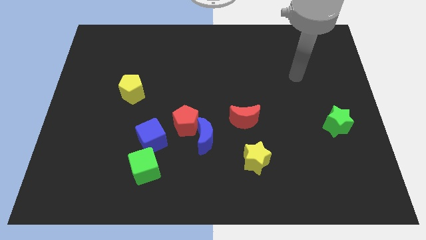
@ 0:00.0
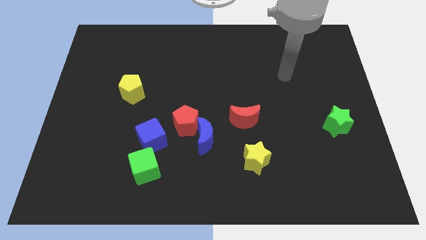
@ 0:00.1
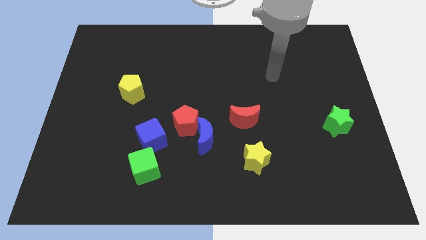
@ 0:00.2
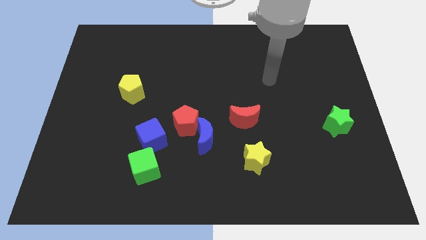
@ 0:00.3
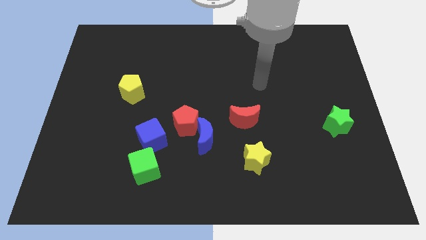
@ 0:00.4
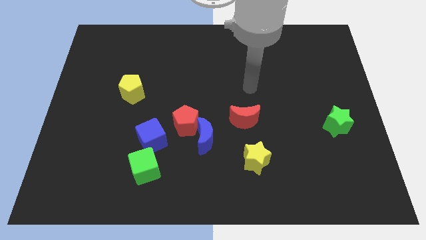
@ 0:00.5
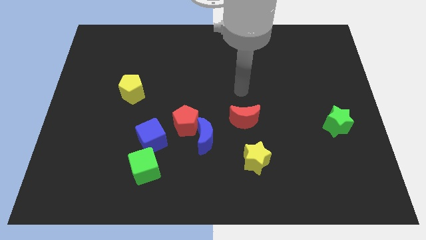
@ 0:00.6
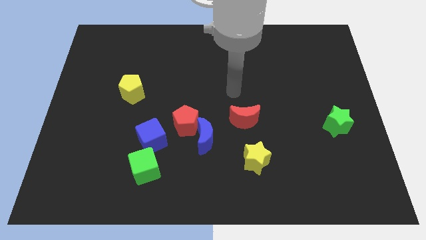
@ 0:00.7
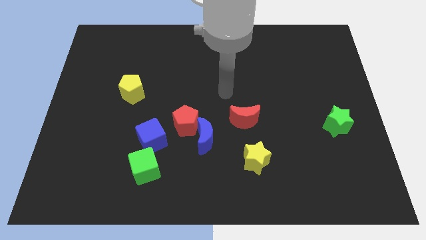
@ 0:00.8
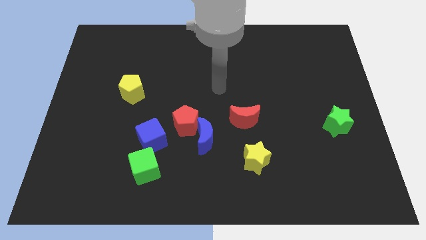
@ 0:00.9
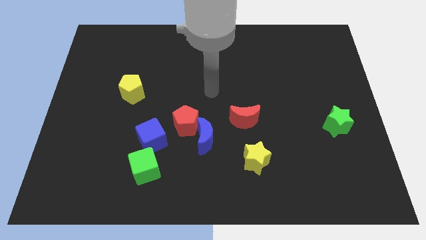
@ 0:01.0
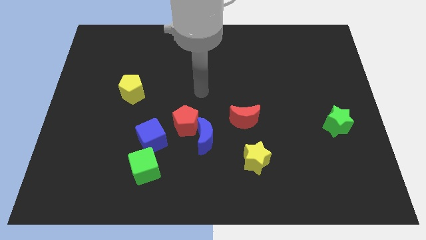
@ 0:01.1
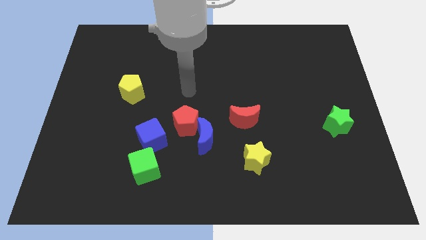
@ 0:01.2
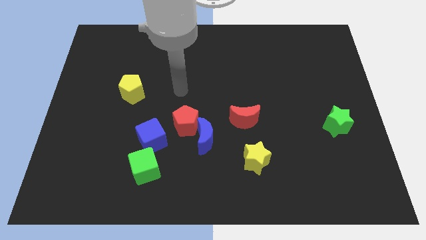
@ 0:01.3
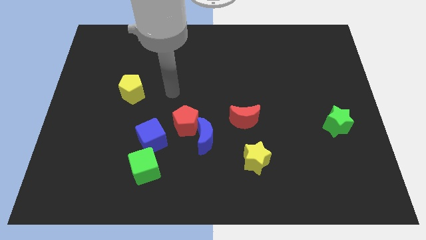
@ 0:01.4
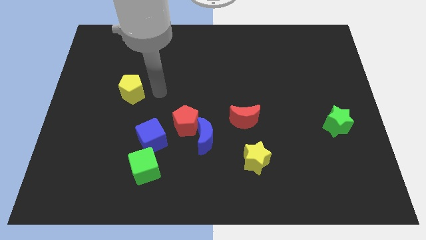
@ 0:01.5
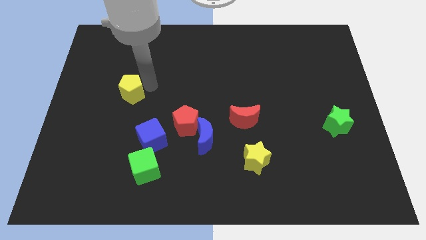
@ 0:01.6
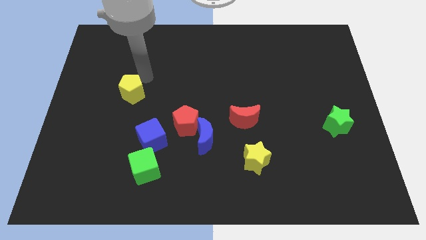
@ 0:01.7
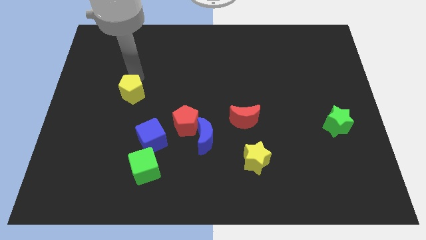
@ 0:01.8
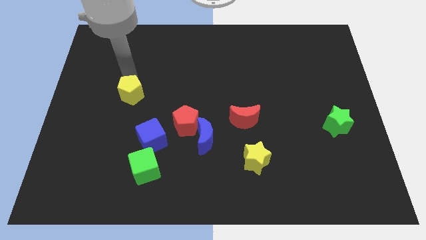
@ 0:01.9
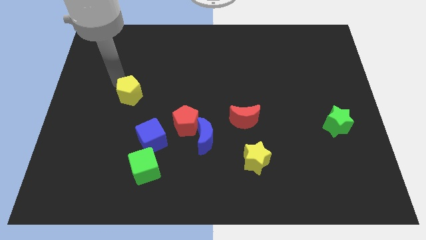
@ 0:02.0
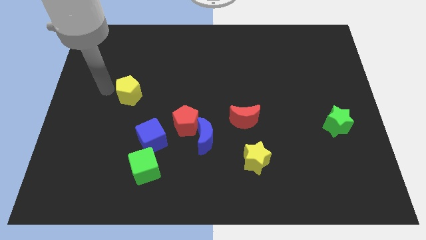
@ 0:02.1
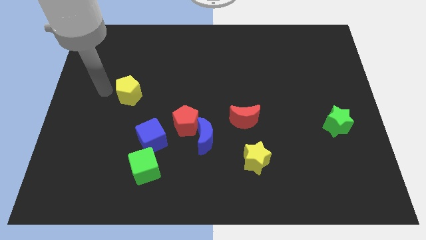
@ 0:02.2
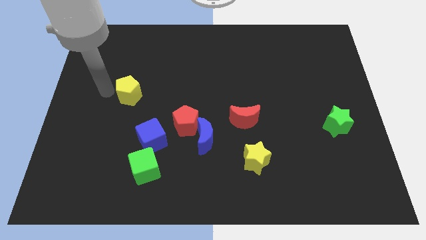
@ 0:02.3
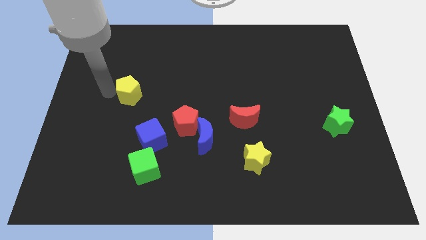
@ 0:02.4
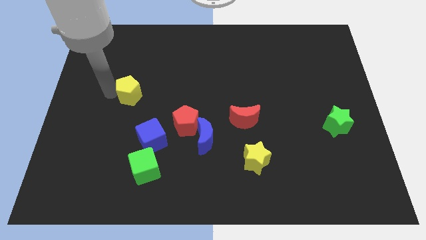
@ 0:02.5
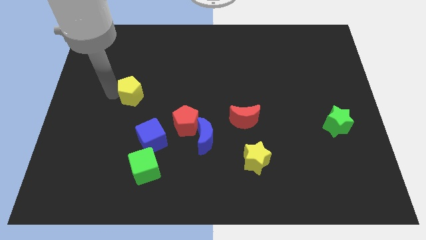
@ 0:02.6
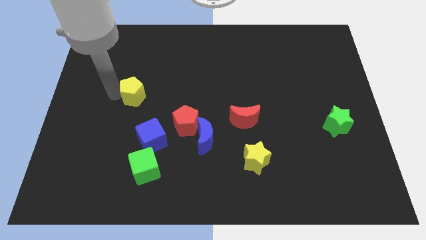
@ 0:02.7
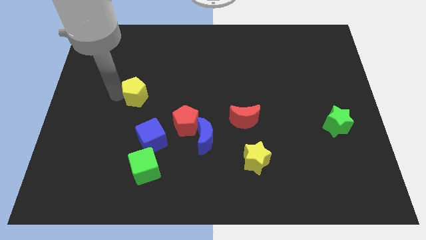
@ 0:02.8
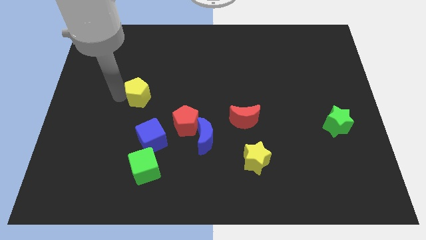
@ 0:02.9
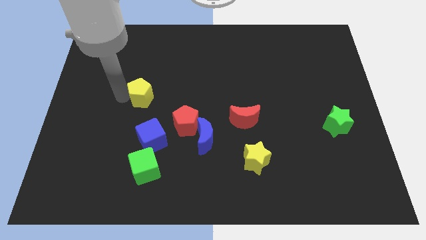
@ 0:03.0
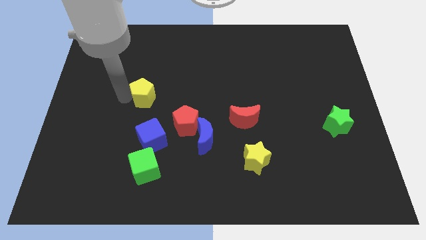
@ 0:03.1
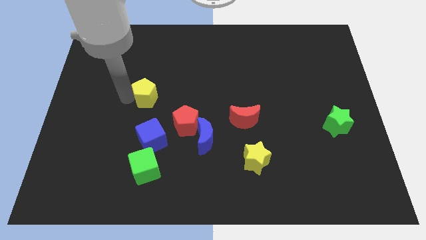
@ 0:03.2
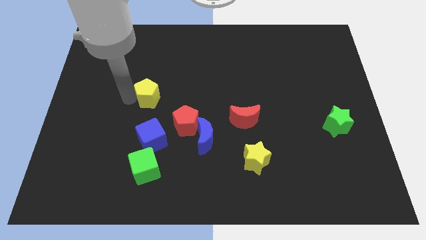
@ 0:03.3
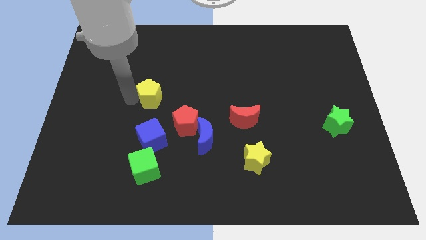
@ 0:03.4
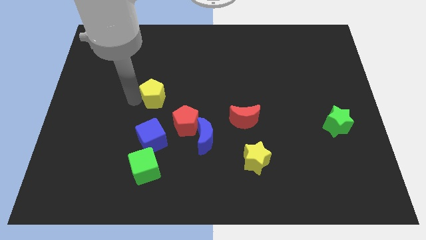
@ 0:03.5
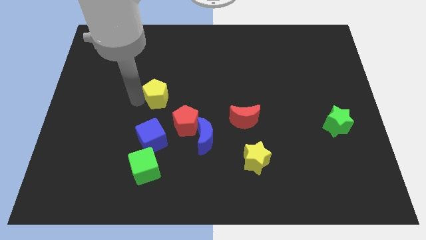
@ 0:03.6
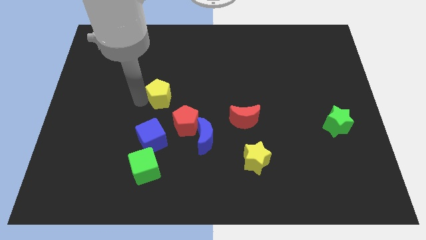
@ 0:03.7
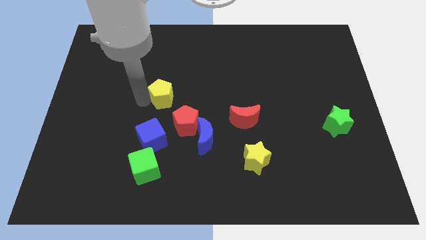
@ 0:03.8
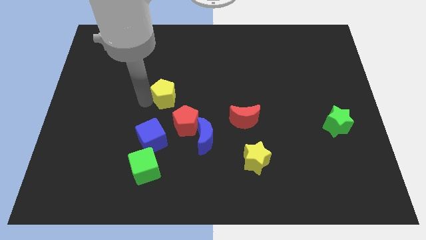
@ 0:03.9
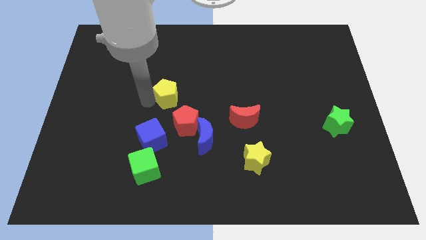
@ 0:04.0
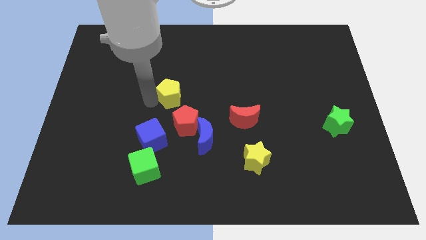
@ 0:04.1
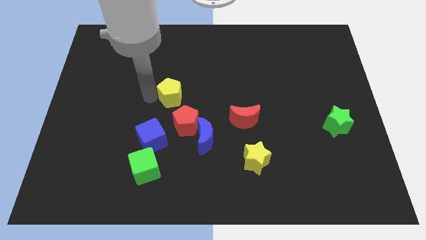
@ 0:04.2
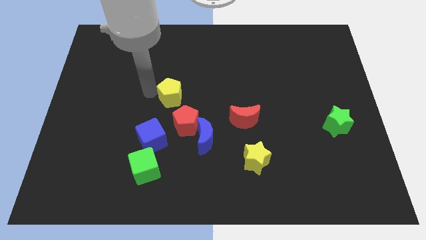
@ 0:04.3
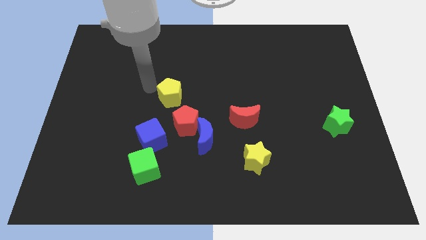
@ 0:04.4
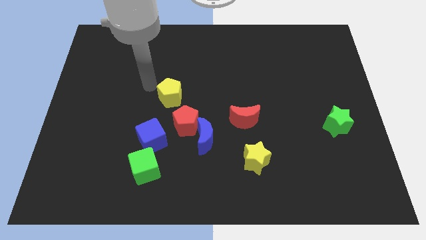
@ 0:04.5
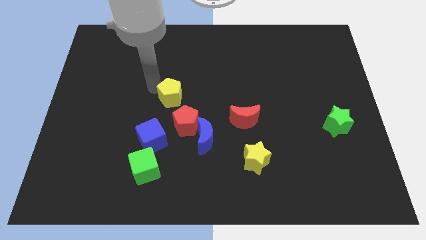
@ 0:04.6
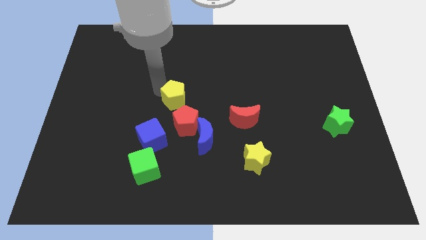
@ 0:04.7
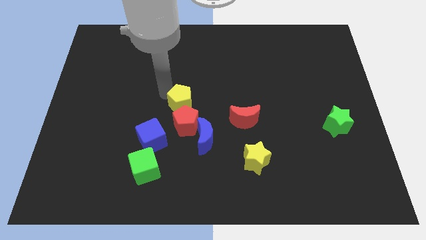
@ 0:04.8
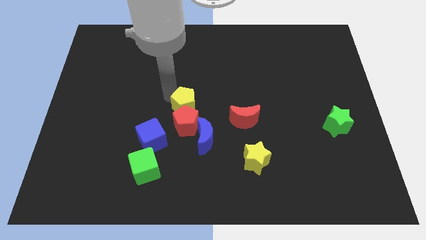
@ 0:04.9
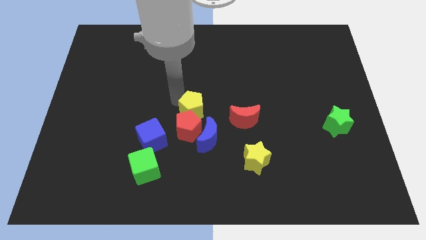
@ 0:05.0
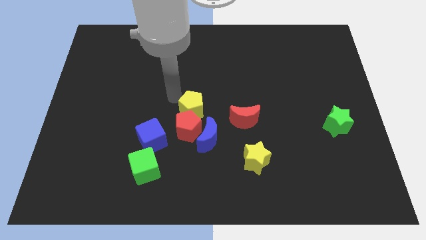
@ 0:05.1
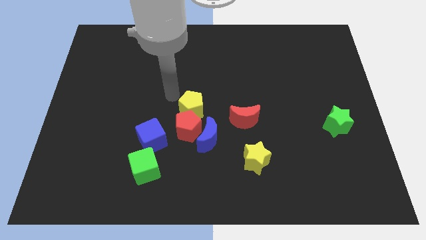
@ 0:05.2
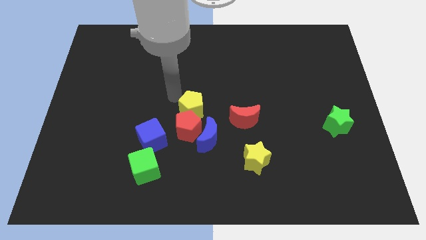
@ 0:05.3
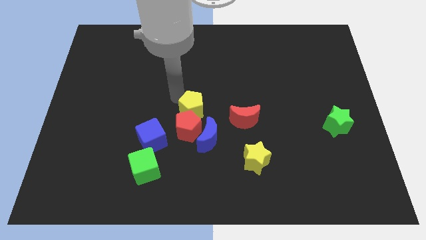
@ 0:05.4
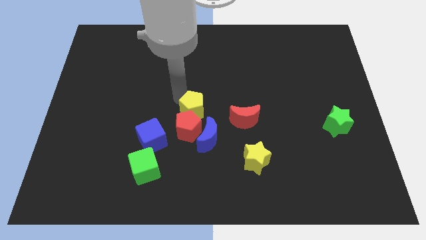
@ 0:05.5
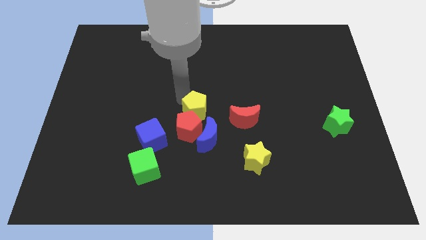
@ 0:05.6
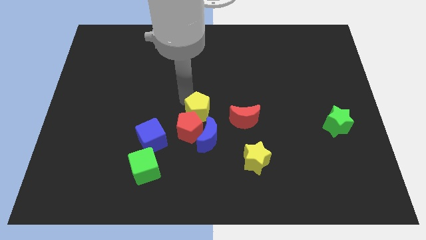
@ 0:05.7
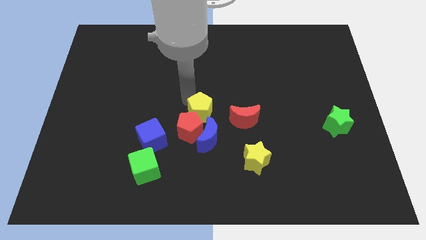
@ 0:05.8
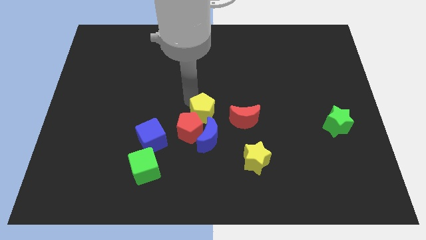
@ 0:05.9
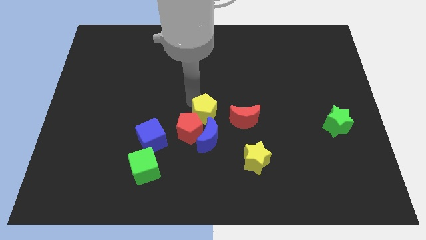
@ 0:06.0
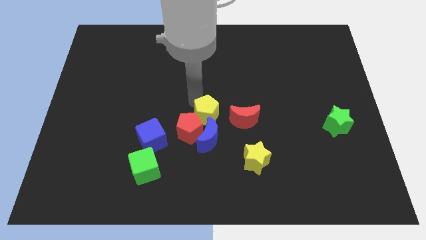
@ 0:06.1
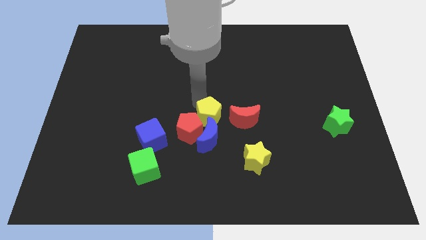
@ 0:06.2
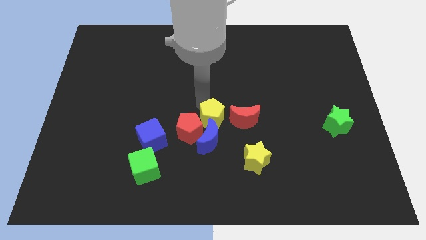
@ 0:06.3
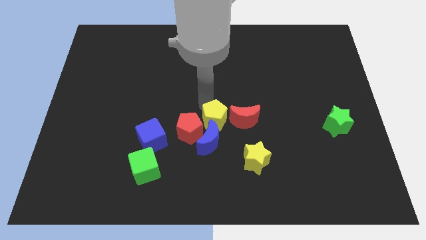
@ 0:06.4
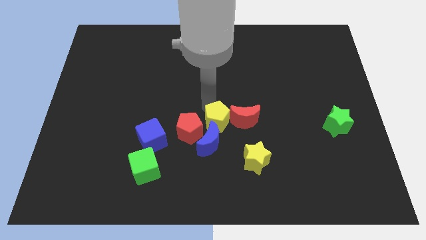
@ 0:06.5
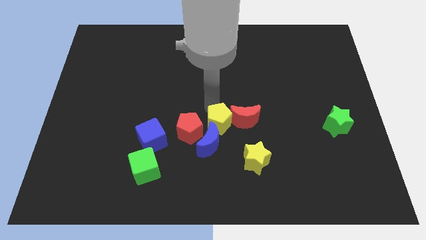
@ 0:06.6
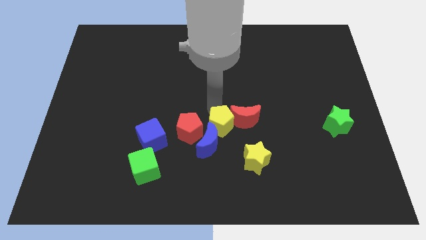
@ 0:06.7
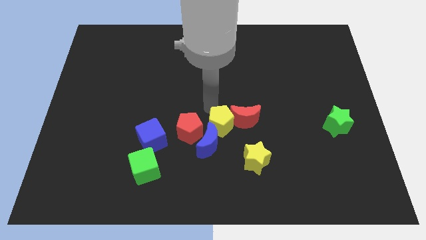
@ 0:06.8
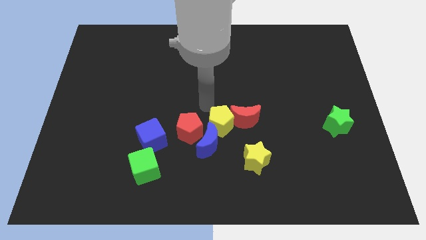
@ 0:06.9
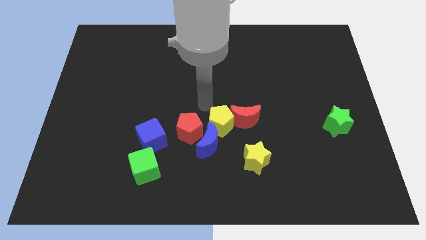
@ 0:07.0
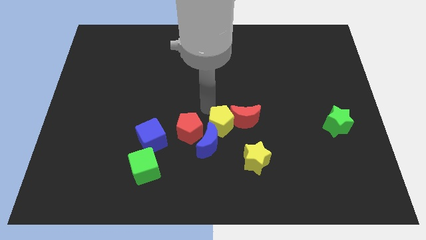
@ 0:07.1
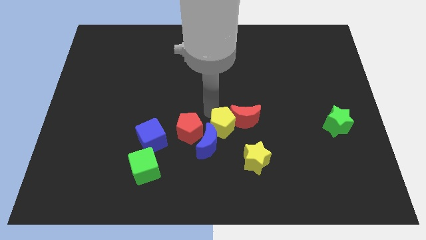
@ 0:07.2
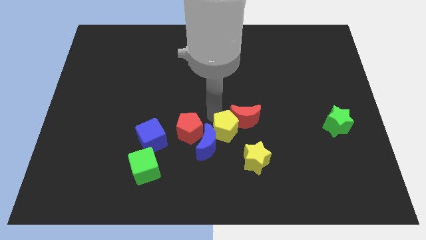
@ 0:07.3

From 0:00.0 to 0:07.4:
slide the yellow pentagon down and right diagonally

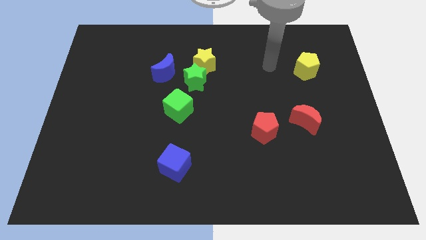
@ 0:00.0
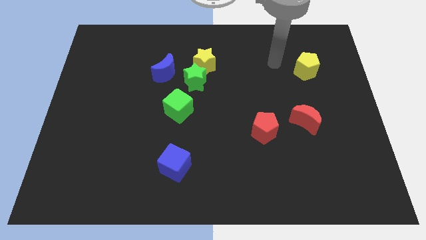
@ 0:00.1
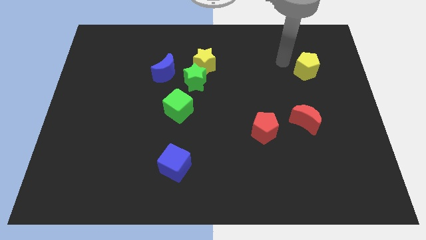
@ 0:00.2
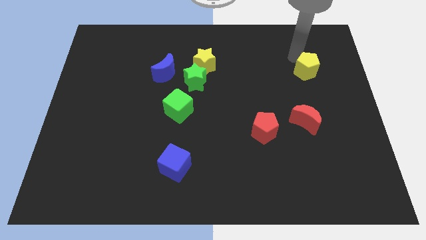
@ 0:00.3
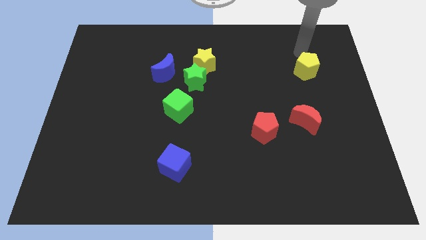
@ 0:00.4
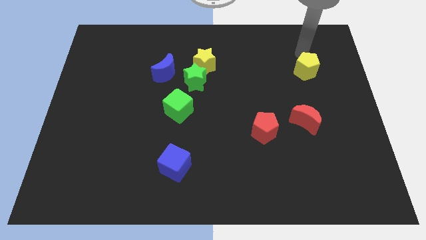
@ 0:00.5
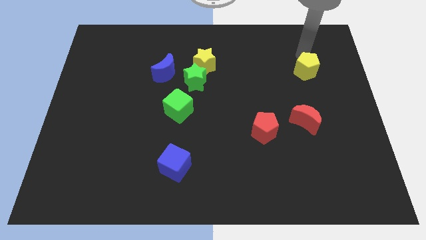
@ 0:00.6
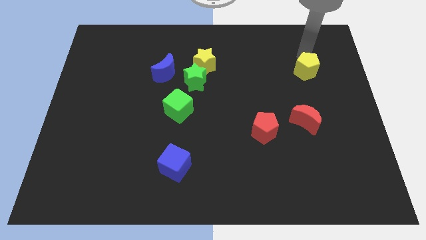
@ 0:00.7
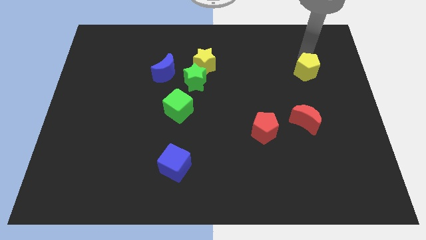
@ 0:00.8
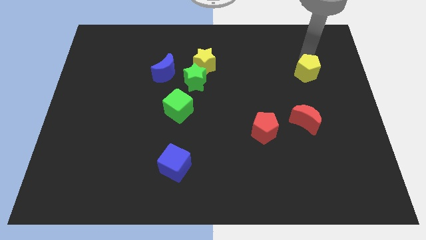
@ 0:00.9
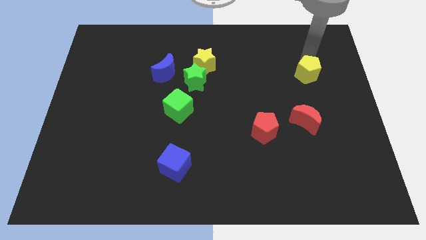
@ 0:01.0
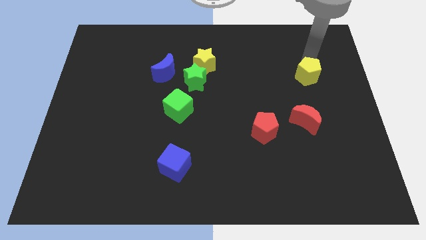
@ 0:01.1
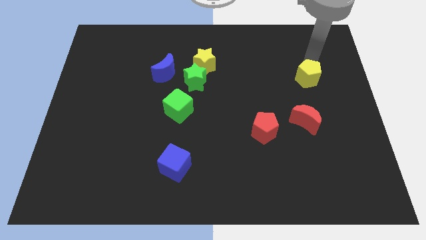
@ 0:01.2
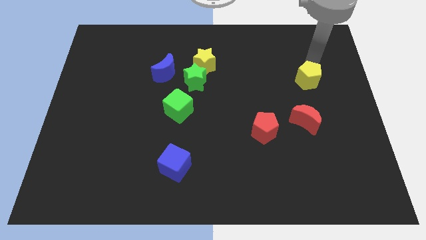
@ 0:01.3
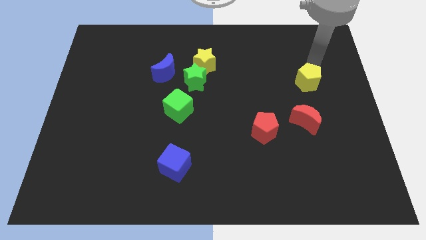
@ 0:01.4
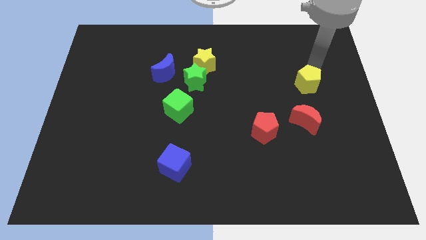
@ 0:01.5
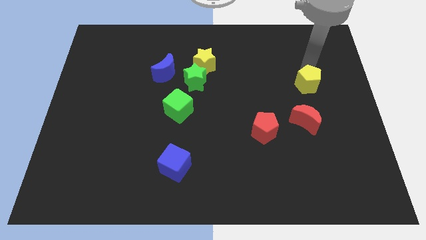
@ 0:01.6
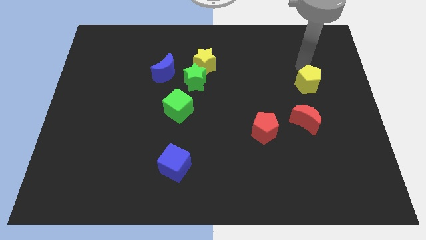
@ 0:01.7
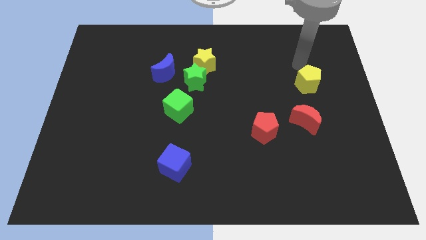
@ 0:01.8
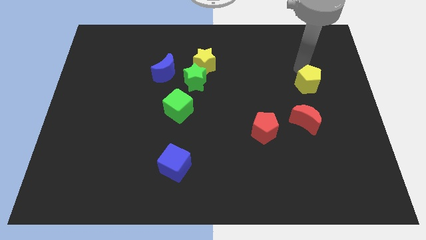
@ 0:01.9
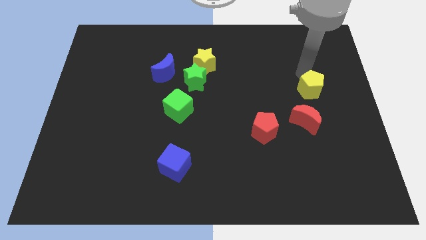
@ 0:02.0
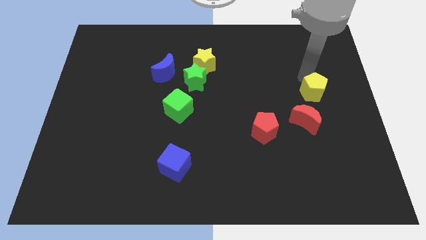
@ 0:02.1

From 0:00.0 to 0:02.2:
slide the yellow pentagon somewhat downwards
